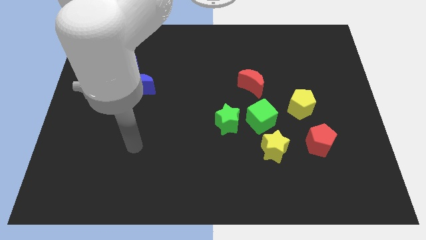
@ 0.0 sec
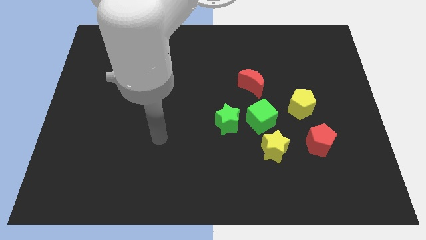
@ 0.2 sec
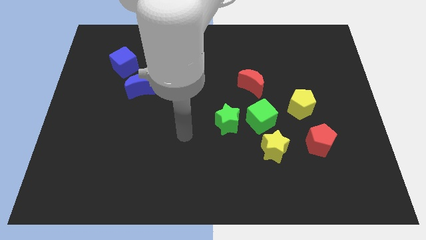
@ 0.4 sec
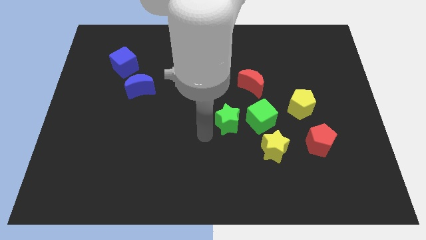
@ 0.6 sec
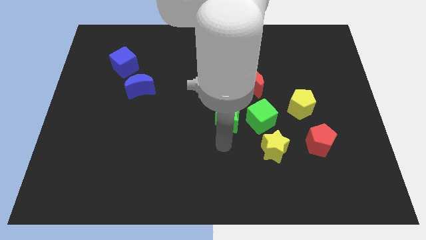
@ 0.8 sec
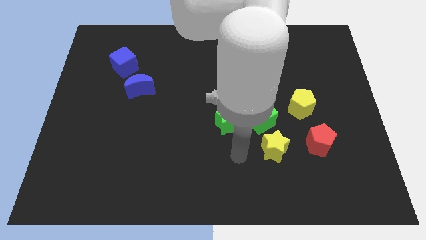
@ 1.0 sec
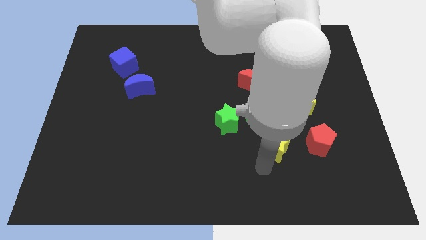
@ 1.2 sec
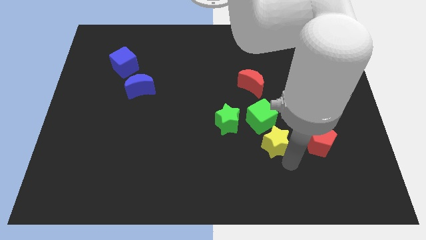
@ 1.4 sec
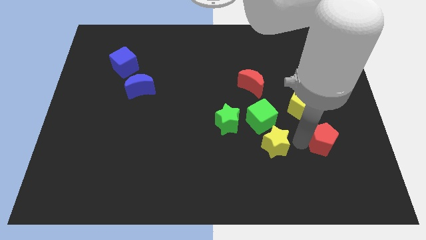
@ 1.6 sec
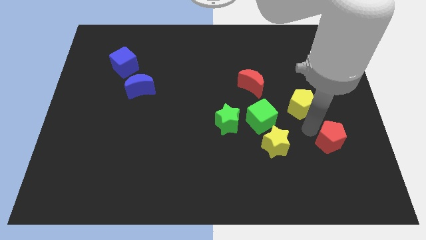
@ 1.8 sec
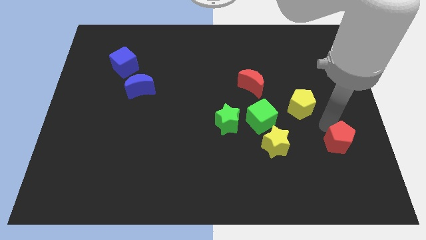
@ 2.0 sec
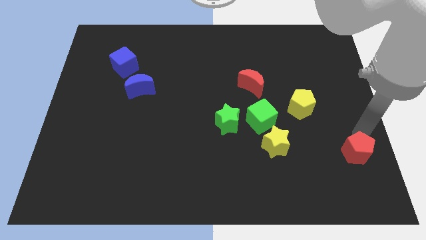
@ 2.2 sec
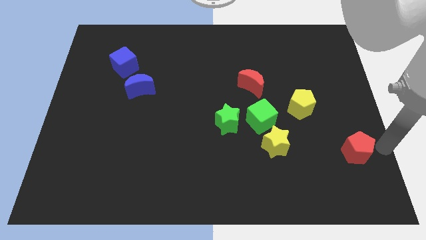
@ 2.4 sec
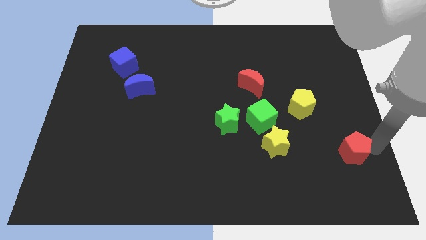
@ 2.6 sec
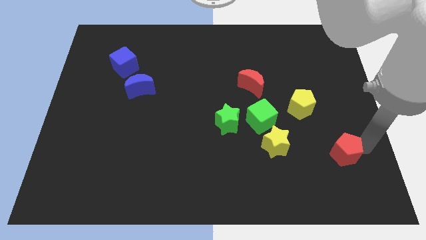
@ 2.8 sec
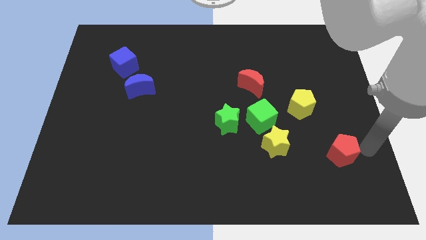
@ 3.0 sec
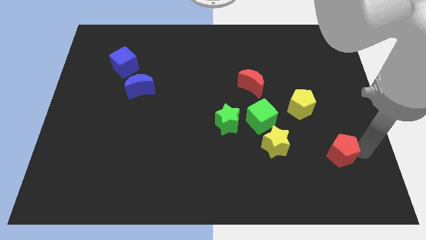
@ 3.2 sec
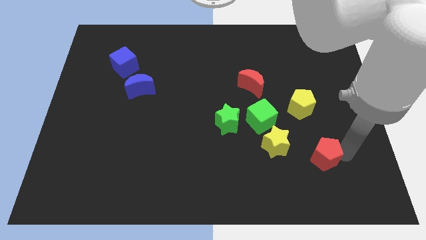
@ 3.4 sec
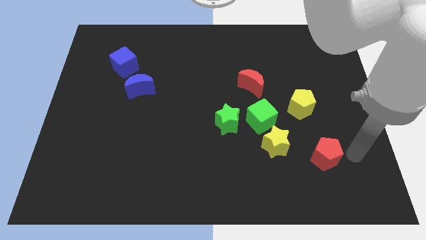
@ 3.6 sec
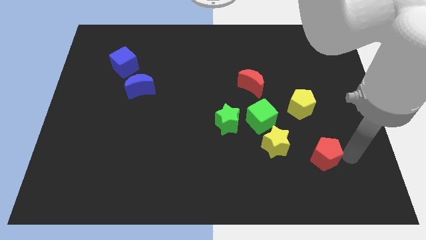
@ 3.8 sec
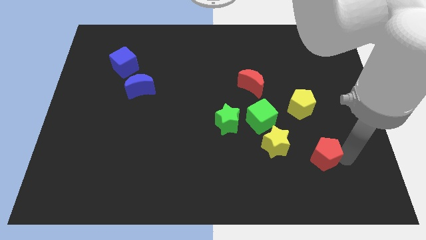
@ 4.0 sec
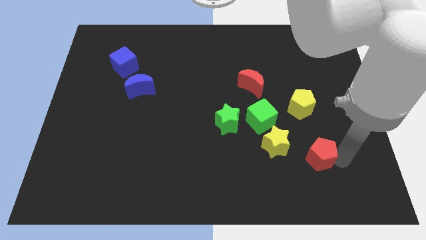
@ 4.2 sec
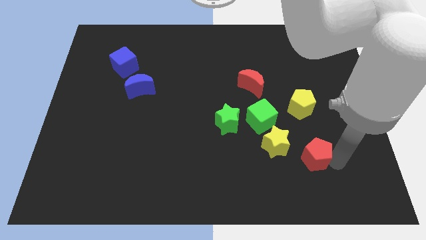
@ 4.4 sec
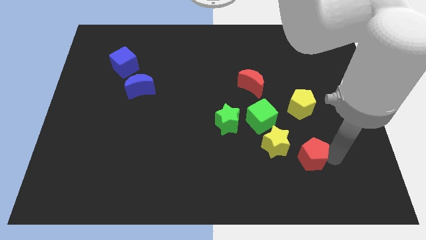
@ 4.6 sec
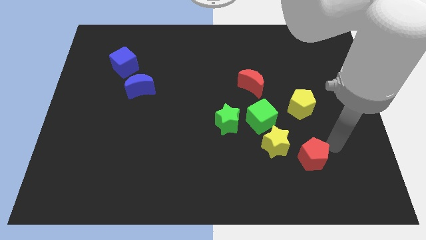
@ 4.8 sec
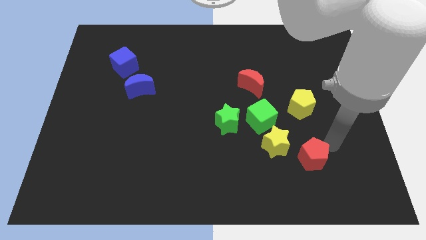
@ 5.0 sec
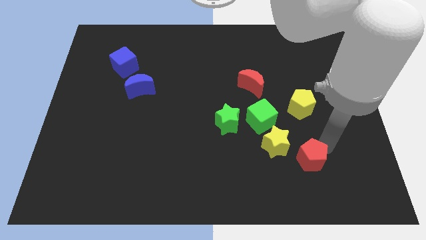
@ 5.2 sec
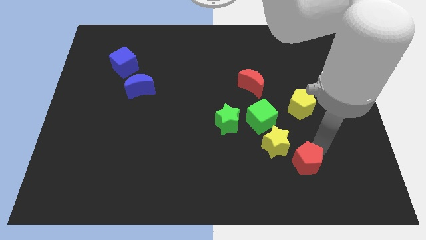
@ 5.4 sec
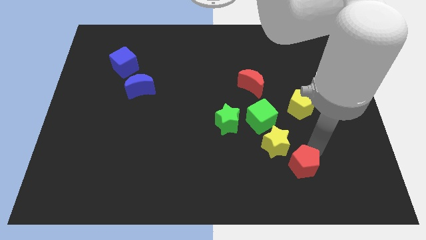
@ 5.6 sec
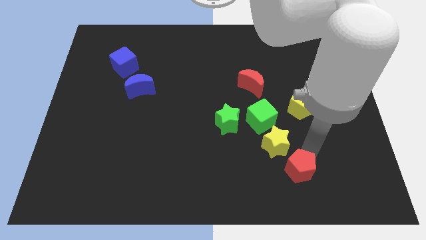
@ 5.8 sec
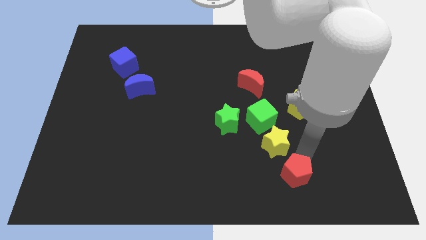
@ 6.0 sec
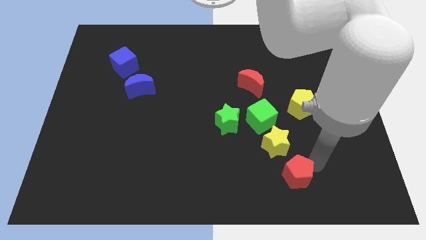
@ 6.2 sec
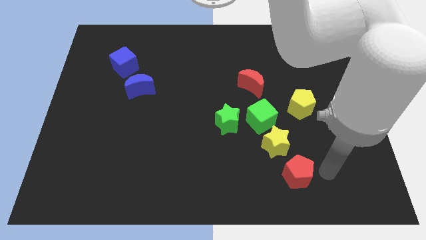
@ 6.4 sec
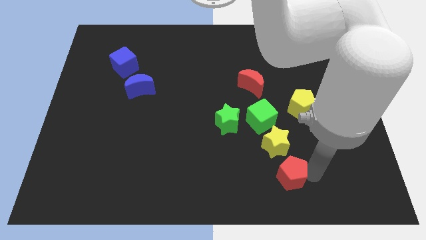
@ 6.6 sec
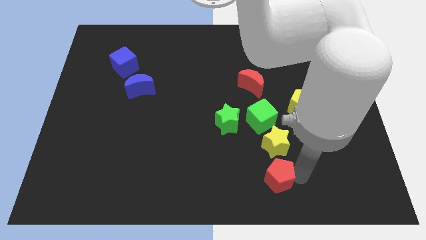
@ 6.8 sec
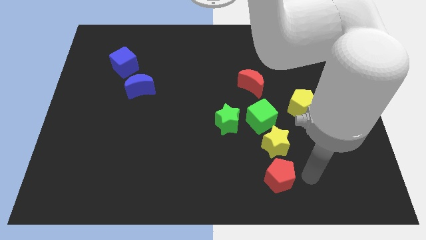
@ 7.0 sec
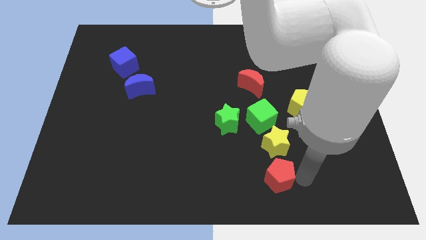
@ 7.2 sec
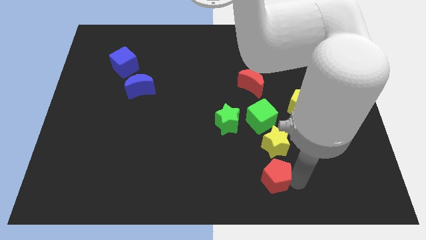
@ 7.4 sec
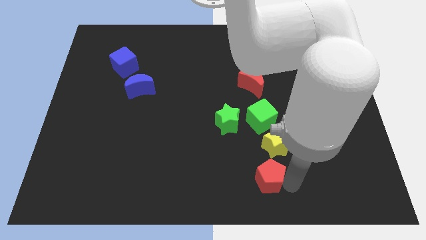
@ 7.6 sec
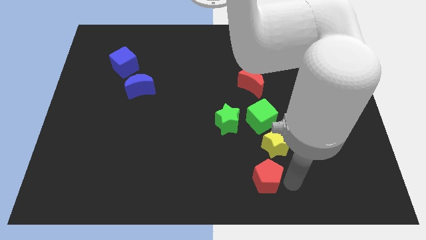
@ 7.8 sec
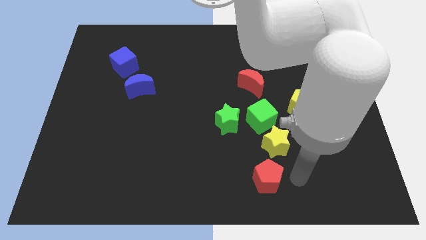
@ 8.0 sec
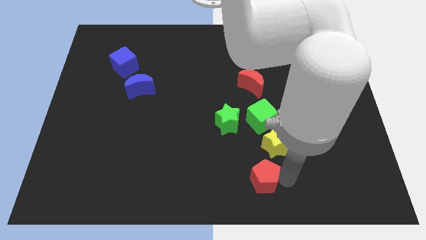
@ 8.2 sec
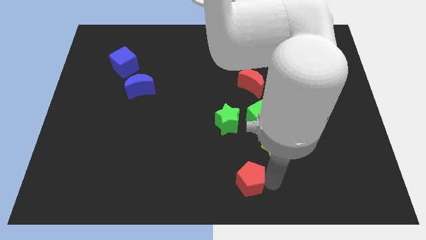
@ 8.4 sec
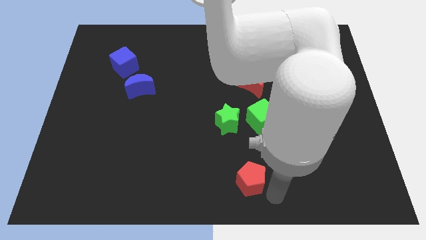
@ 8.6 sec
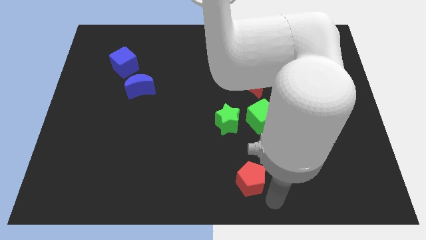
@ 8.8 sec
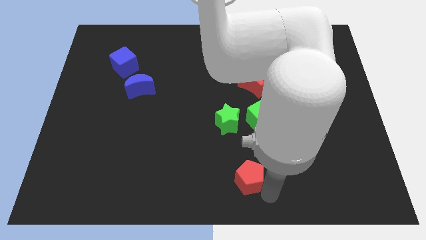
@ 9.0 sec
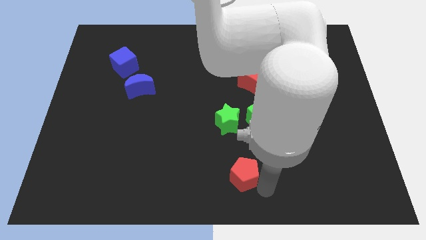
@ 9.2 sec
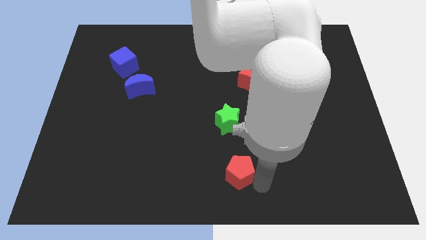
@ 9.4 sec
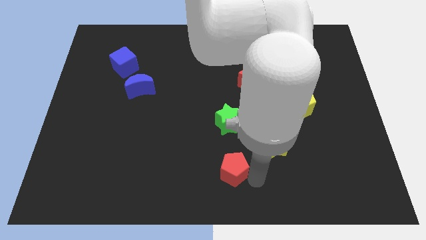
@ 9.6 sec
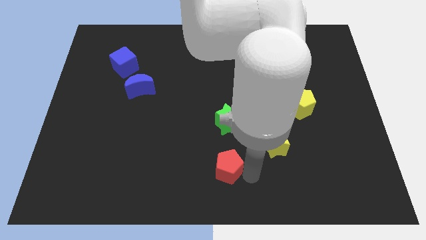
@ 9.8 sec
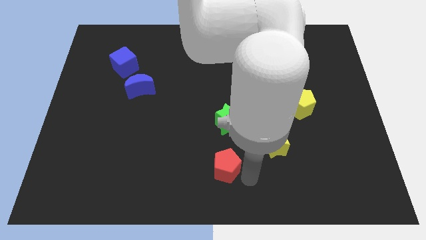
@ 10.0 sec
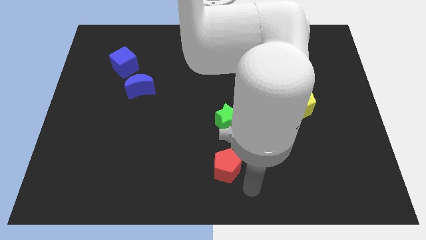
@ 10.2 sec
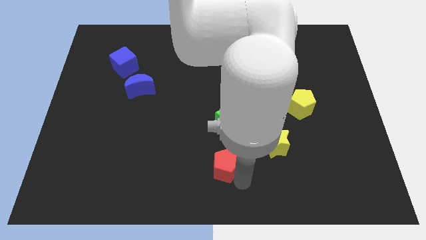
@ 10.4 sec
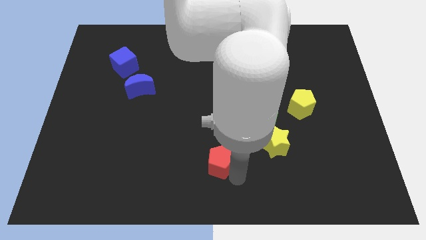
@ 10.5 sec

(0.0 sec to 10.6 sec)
slide the red pentagon left

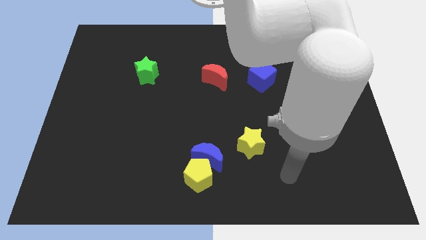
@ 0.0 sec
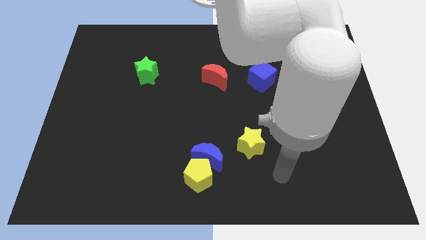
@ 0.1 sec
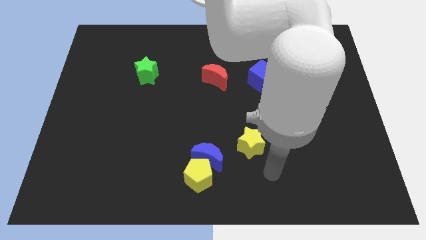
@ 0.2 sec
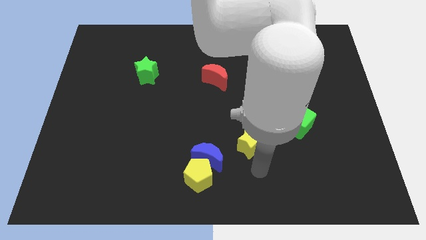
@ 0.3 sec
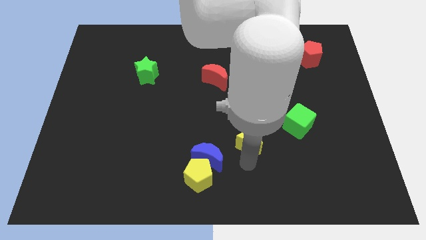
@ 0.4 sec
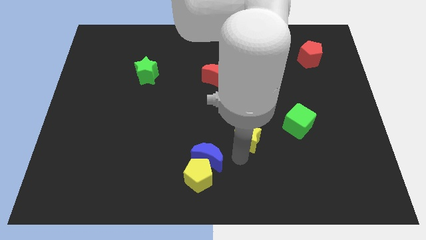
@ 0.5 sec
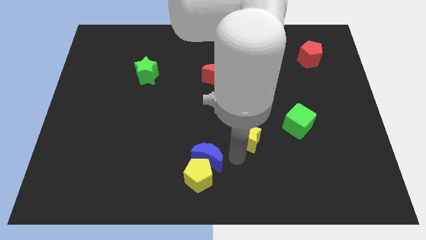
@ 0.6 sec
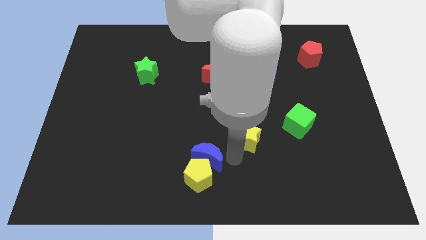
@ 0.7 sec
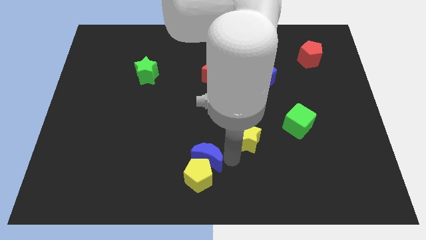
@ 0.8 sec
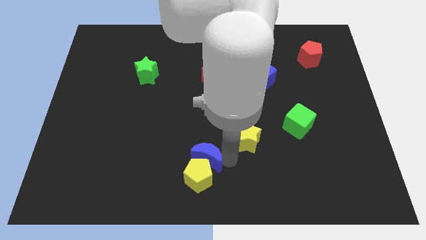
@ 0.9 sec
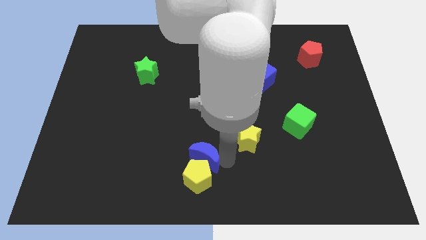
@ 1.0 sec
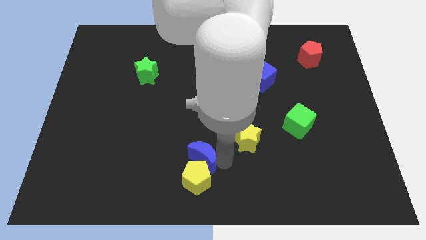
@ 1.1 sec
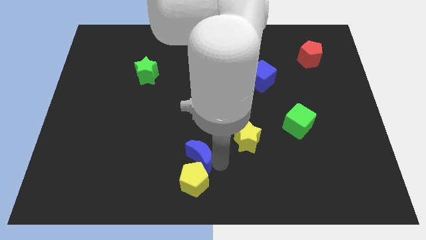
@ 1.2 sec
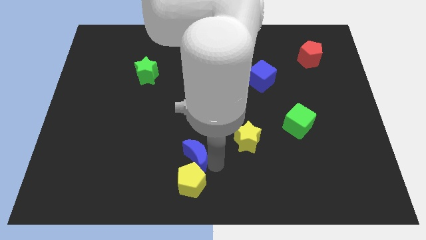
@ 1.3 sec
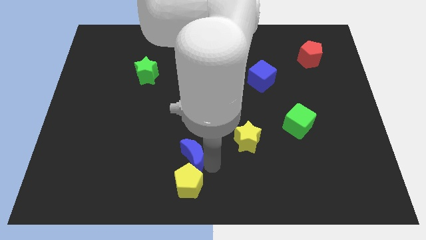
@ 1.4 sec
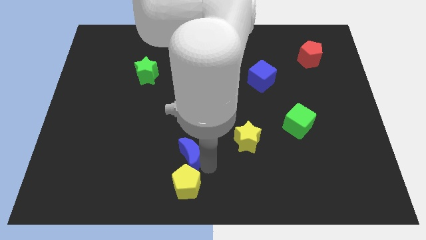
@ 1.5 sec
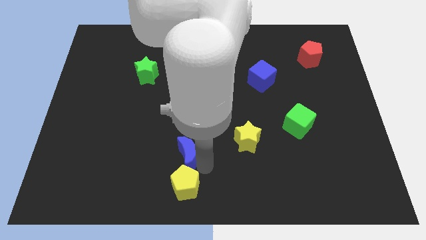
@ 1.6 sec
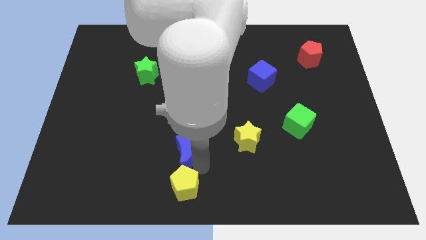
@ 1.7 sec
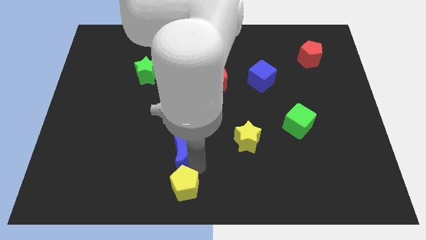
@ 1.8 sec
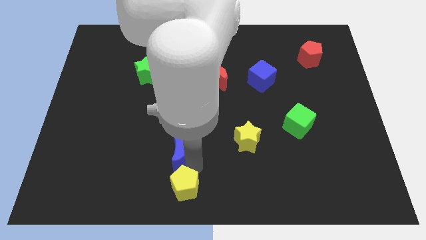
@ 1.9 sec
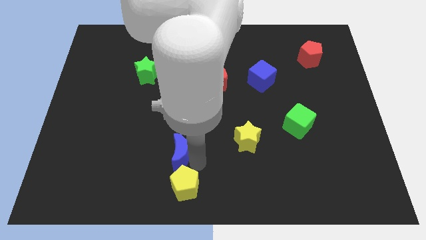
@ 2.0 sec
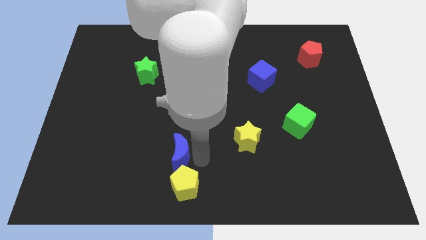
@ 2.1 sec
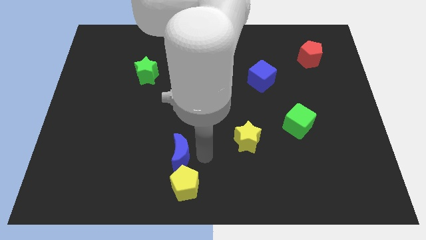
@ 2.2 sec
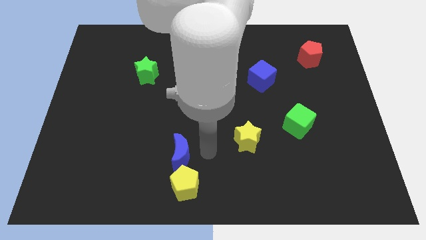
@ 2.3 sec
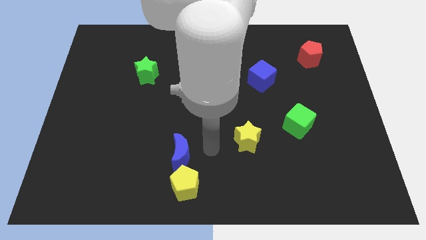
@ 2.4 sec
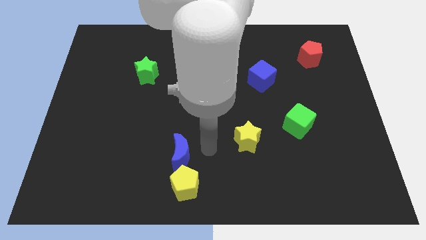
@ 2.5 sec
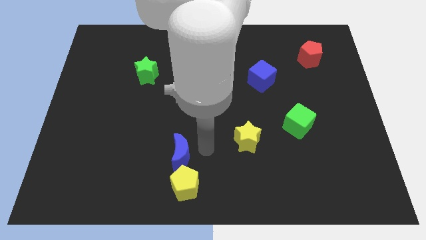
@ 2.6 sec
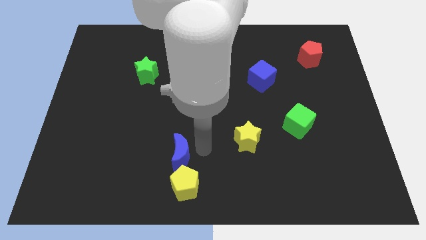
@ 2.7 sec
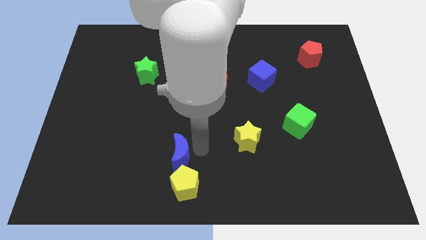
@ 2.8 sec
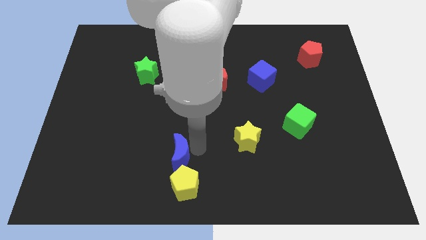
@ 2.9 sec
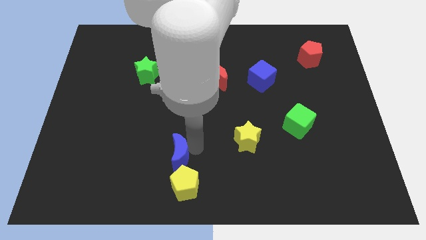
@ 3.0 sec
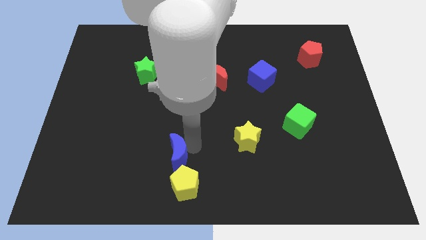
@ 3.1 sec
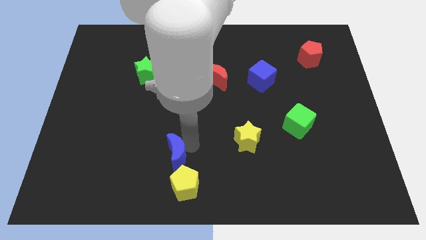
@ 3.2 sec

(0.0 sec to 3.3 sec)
slide the blue moon to the left a little
